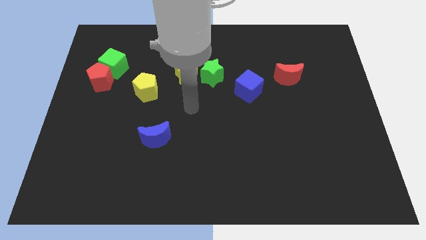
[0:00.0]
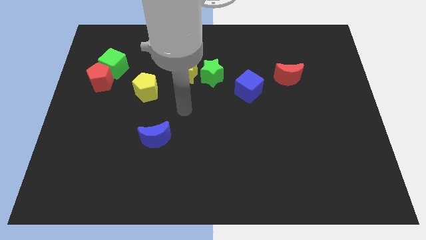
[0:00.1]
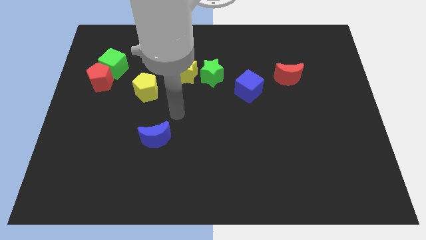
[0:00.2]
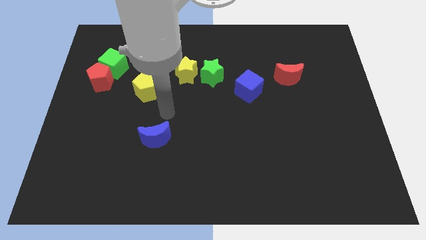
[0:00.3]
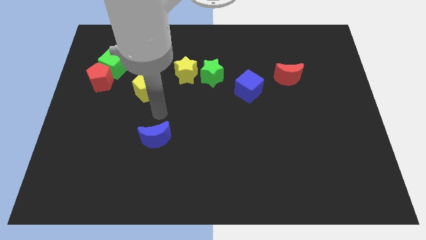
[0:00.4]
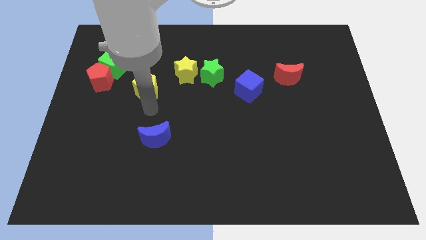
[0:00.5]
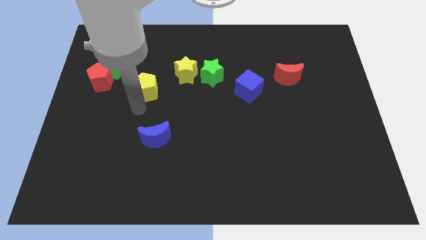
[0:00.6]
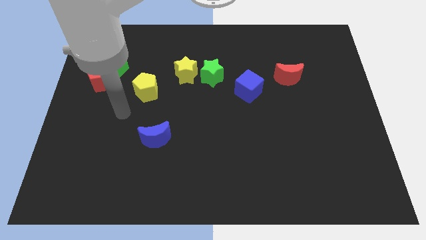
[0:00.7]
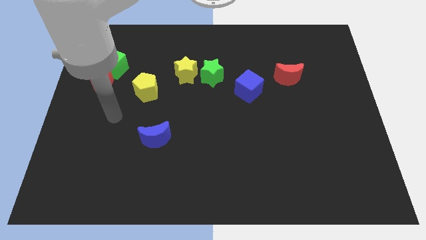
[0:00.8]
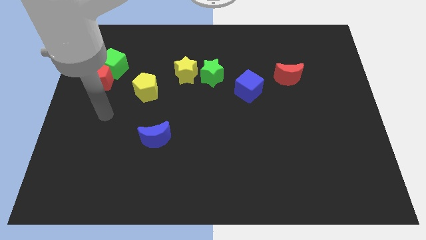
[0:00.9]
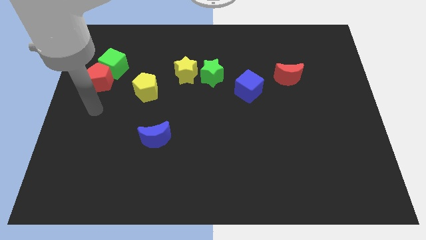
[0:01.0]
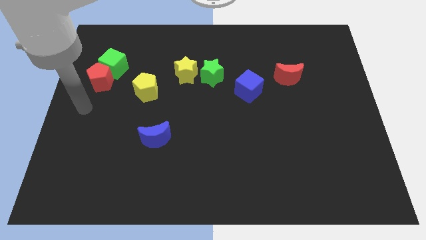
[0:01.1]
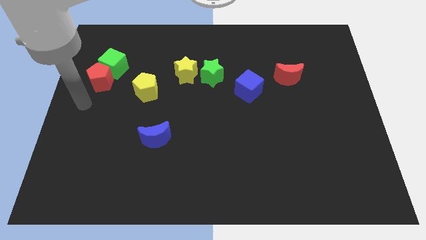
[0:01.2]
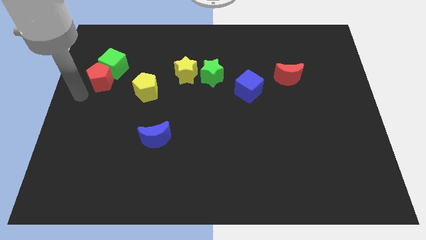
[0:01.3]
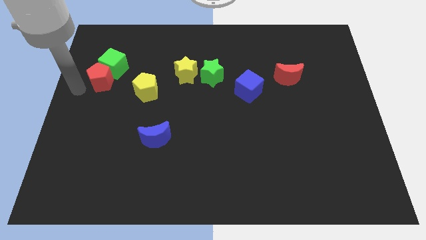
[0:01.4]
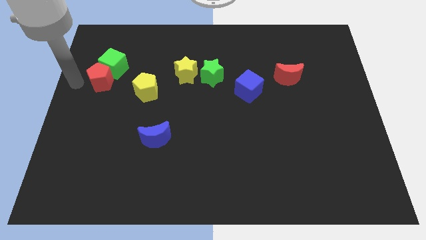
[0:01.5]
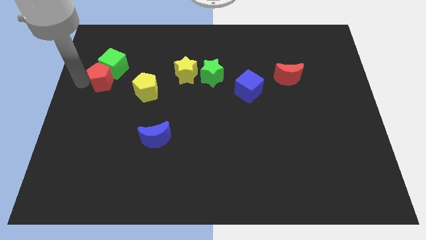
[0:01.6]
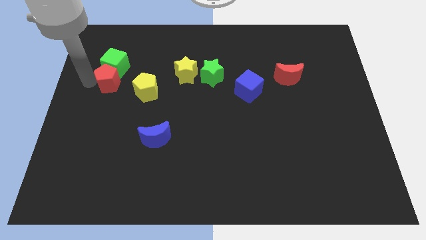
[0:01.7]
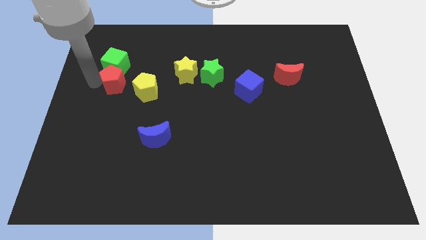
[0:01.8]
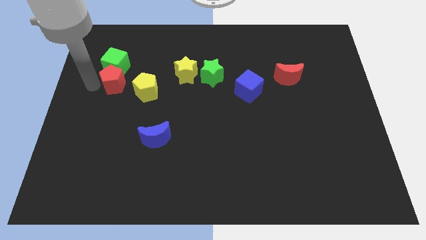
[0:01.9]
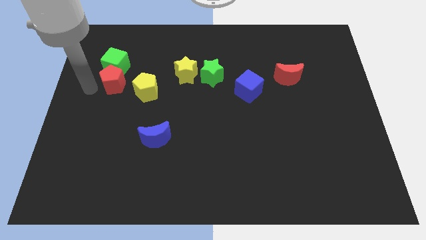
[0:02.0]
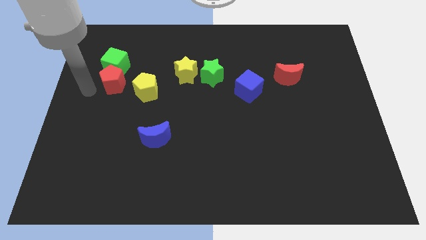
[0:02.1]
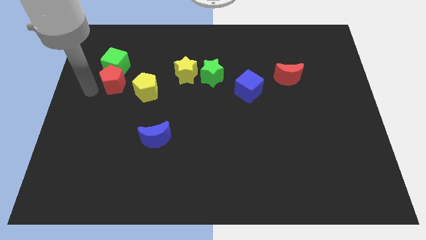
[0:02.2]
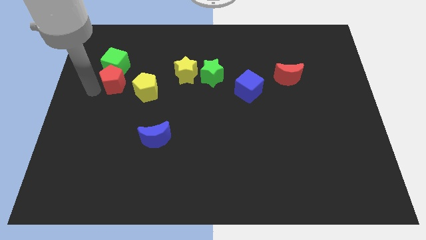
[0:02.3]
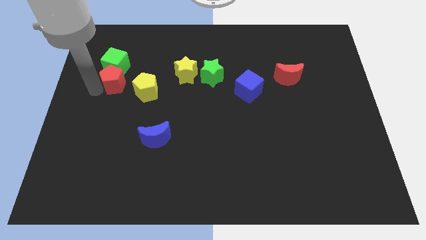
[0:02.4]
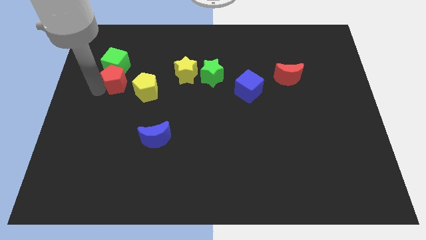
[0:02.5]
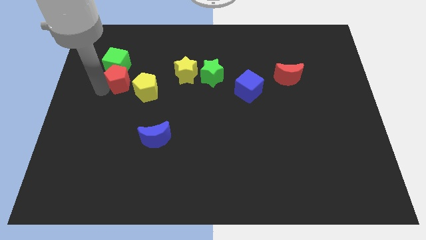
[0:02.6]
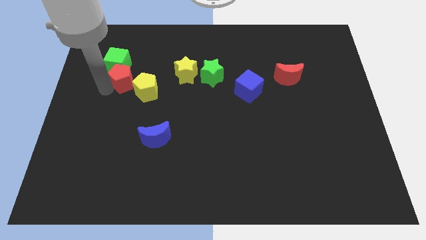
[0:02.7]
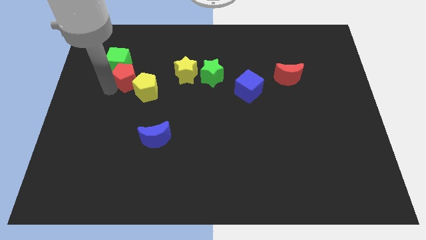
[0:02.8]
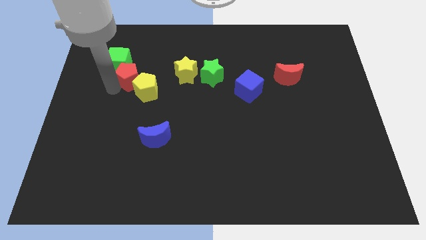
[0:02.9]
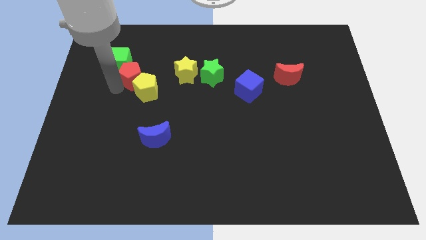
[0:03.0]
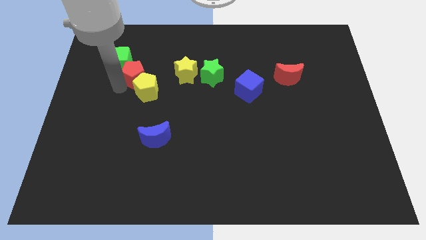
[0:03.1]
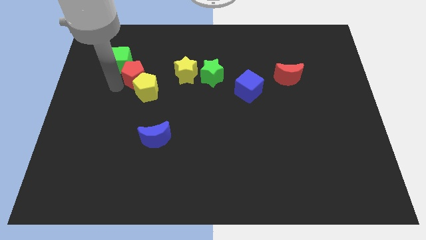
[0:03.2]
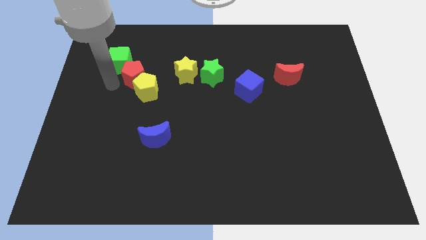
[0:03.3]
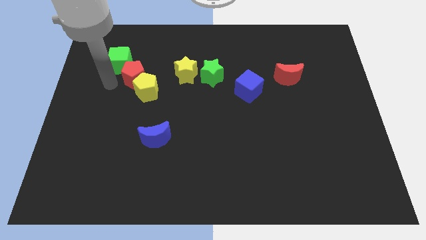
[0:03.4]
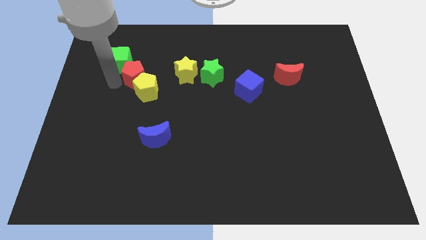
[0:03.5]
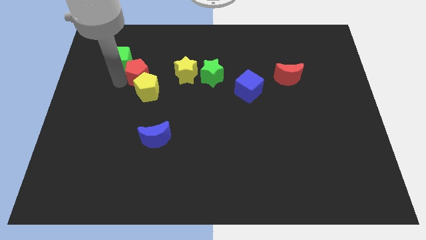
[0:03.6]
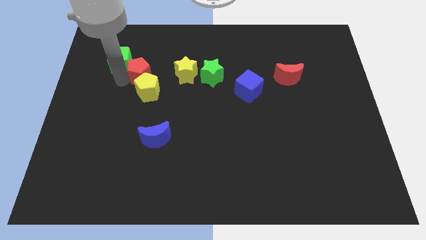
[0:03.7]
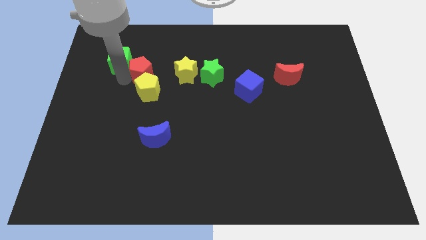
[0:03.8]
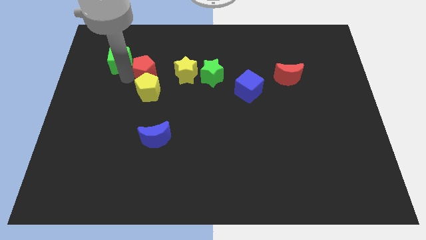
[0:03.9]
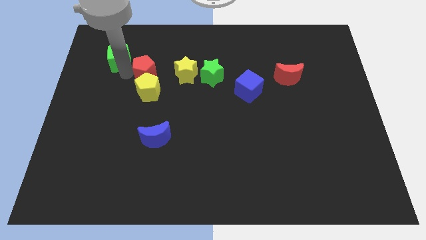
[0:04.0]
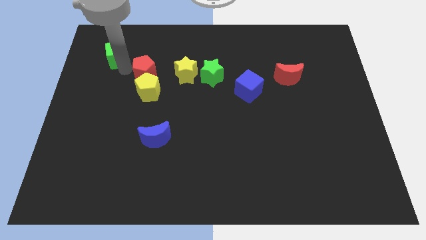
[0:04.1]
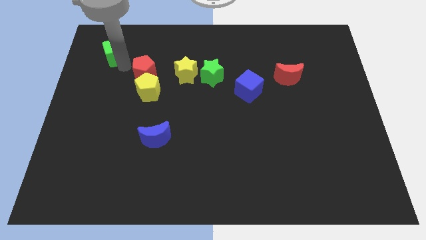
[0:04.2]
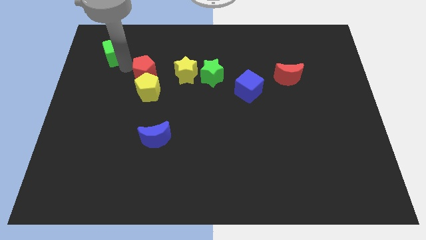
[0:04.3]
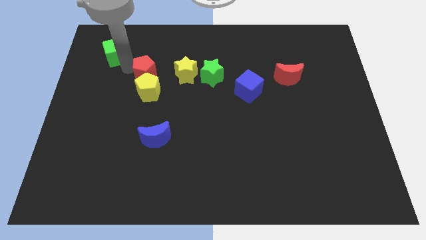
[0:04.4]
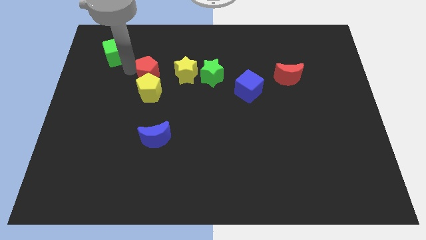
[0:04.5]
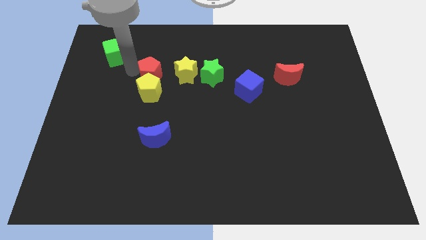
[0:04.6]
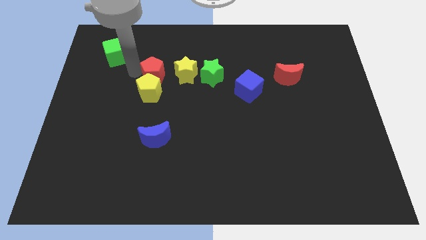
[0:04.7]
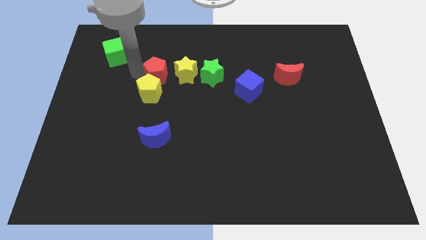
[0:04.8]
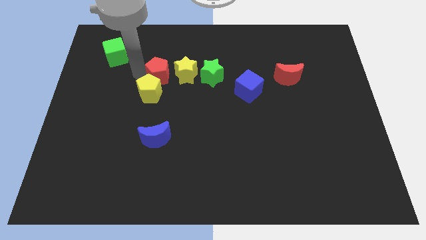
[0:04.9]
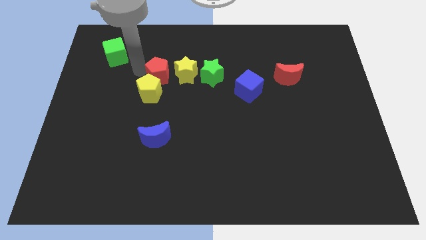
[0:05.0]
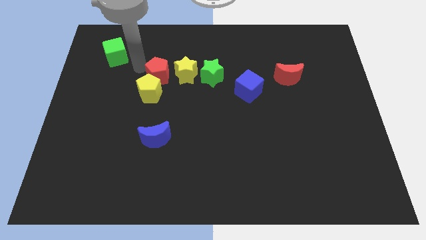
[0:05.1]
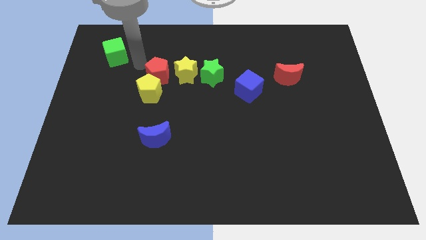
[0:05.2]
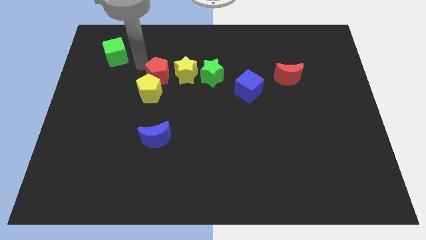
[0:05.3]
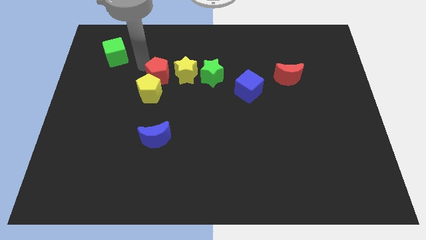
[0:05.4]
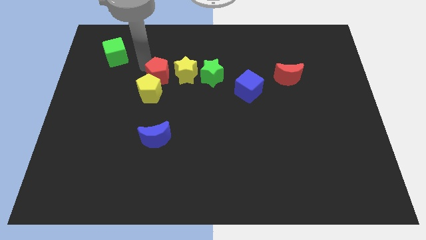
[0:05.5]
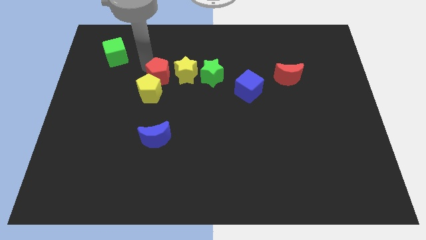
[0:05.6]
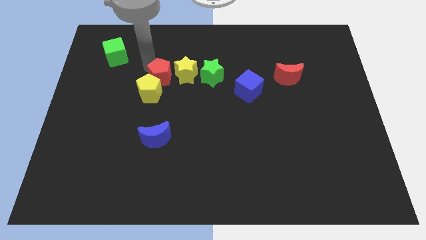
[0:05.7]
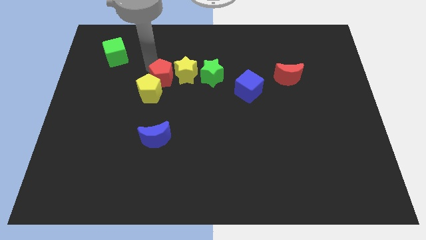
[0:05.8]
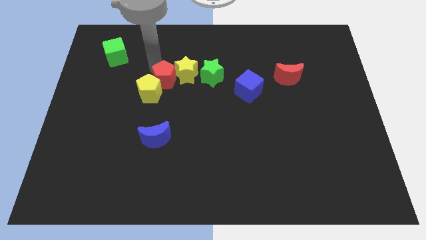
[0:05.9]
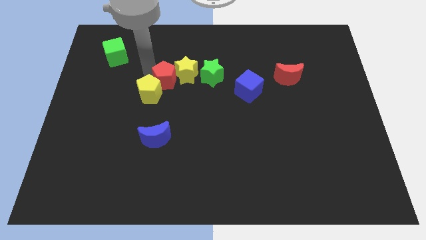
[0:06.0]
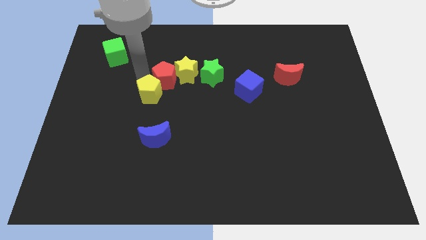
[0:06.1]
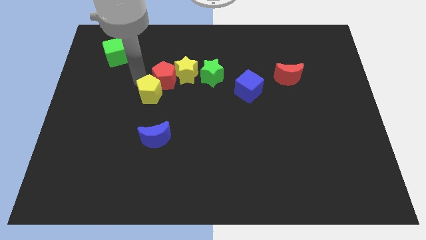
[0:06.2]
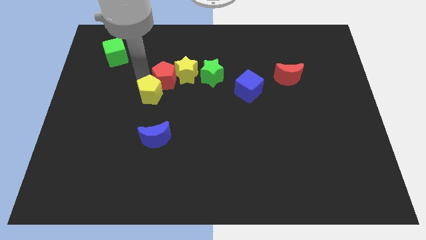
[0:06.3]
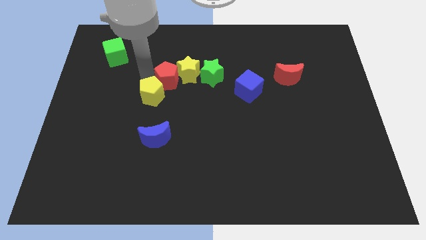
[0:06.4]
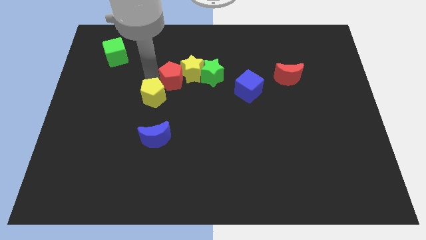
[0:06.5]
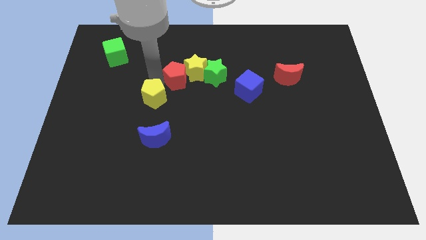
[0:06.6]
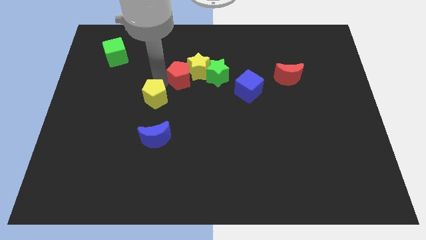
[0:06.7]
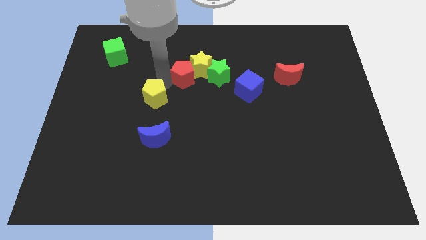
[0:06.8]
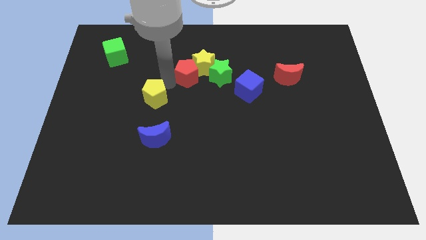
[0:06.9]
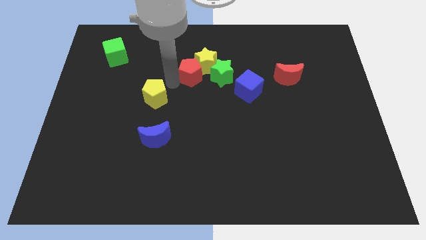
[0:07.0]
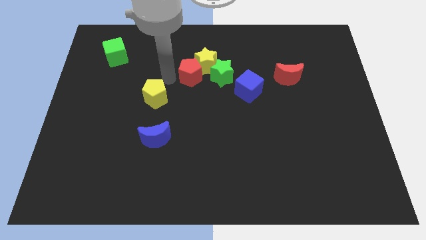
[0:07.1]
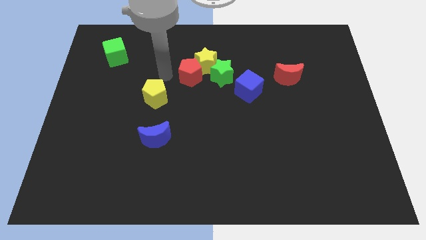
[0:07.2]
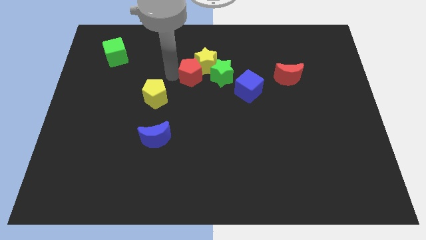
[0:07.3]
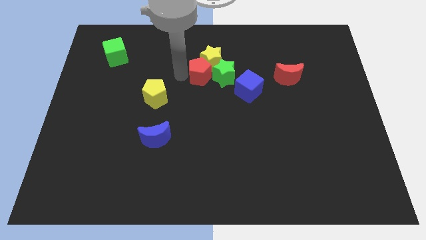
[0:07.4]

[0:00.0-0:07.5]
slide the red pentagon towards the green star

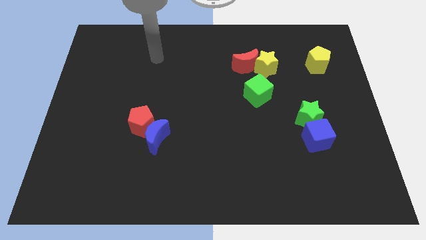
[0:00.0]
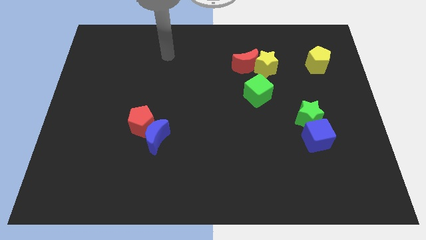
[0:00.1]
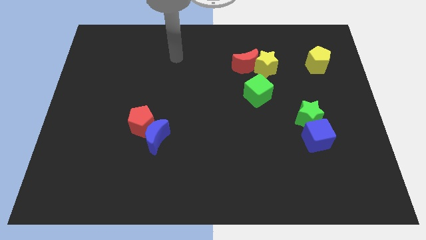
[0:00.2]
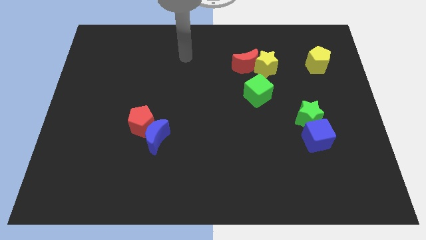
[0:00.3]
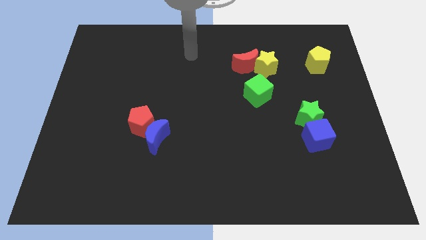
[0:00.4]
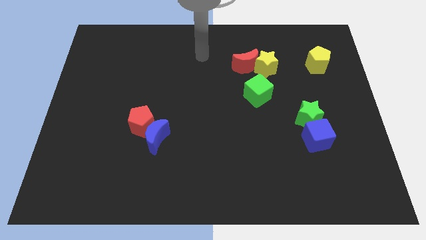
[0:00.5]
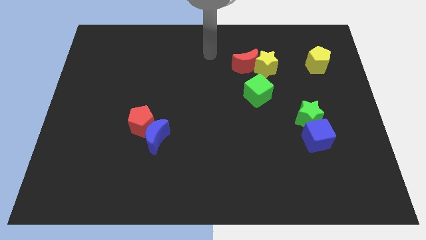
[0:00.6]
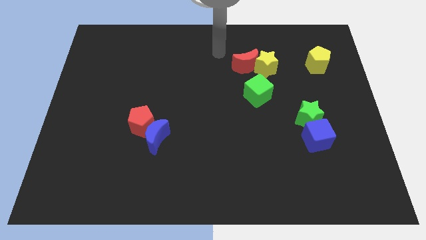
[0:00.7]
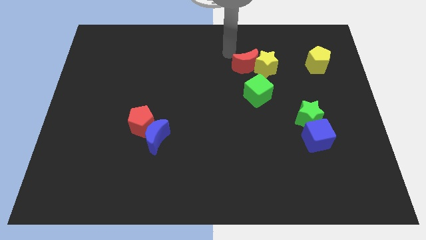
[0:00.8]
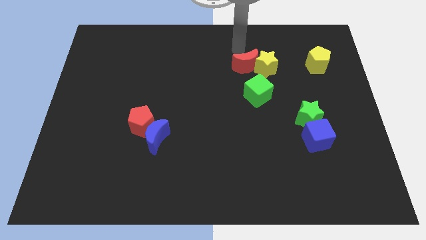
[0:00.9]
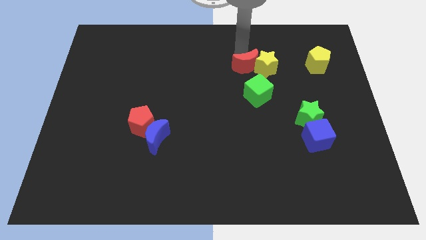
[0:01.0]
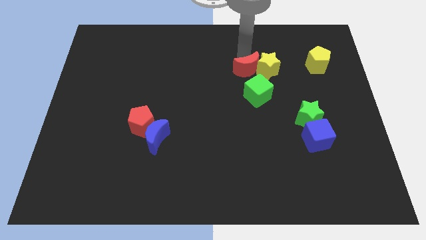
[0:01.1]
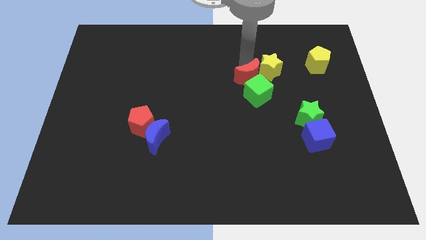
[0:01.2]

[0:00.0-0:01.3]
push the red moon close to the green cube
